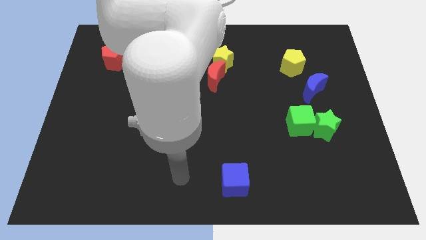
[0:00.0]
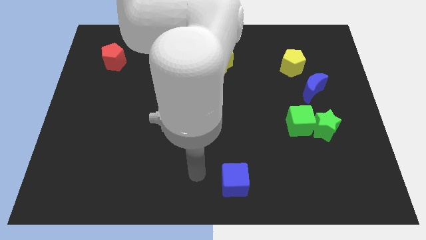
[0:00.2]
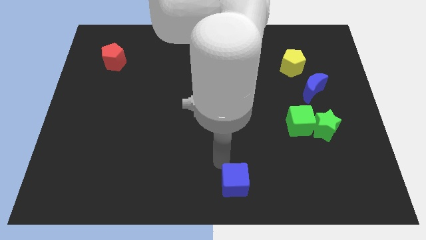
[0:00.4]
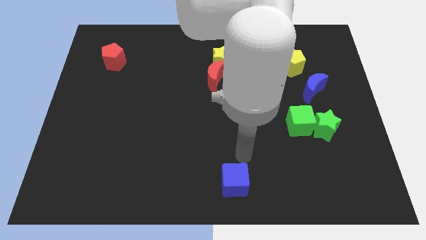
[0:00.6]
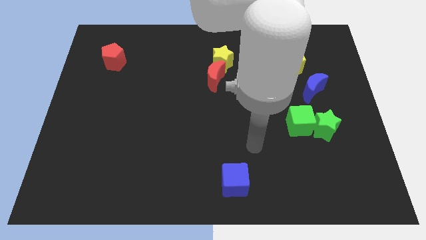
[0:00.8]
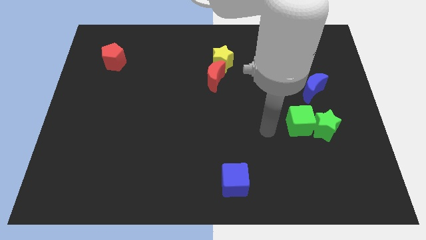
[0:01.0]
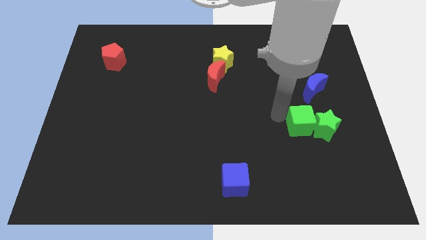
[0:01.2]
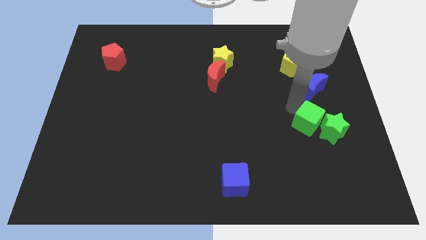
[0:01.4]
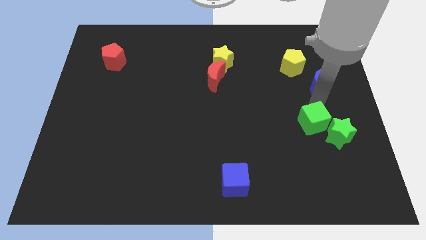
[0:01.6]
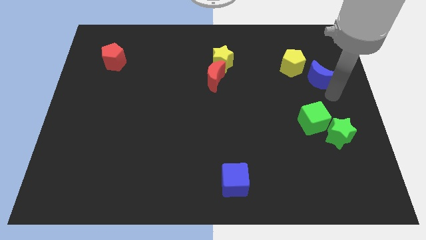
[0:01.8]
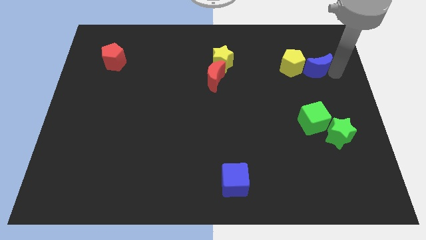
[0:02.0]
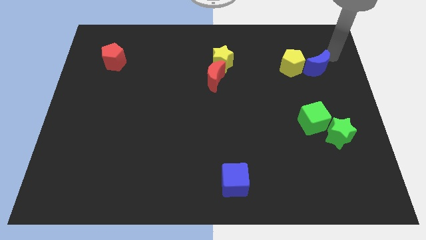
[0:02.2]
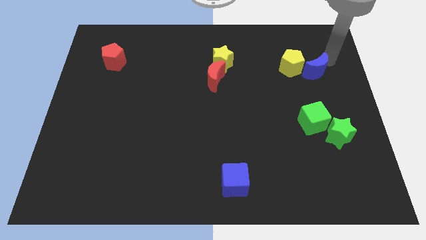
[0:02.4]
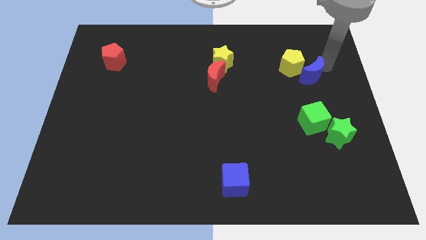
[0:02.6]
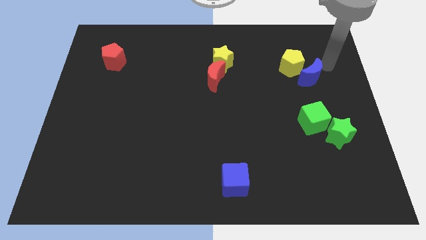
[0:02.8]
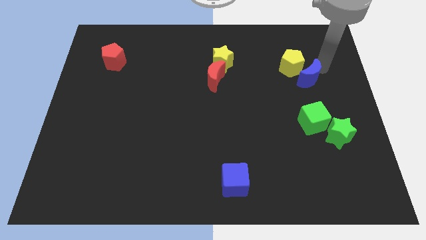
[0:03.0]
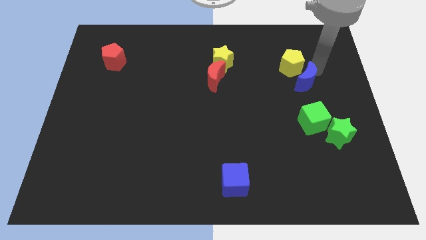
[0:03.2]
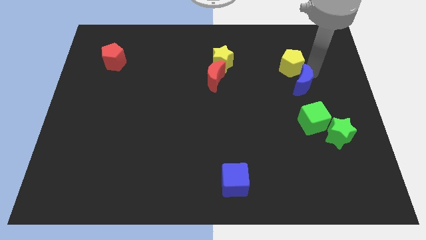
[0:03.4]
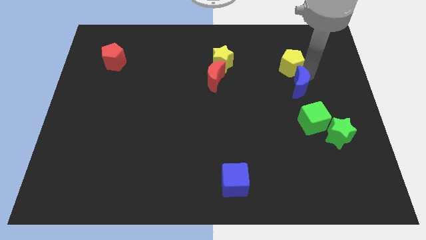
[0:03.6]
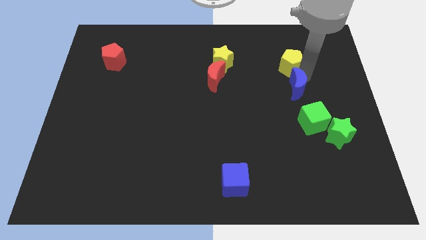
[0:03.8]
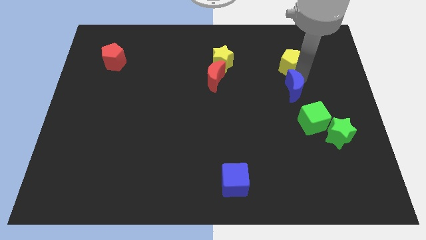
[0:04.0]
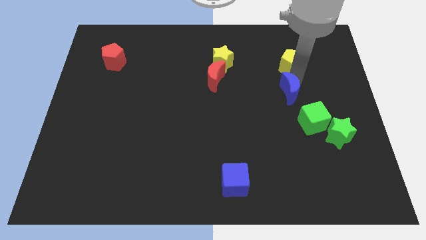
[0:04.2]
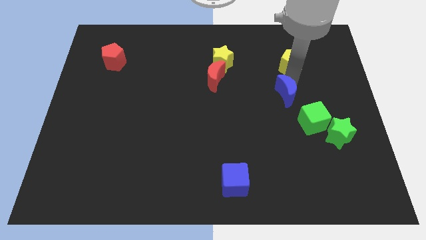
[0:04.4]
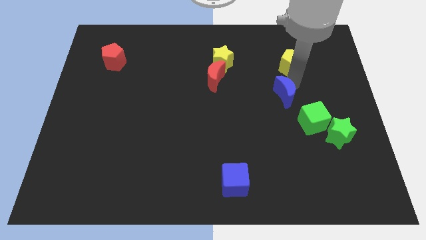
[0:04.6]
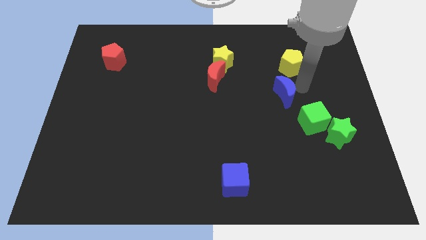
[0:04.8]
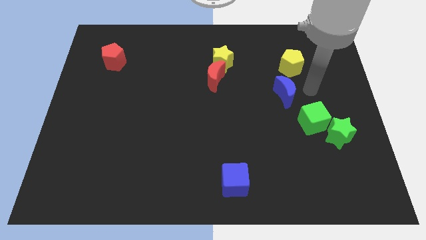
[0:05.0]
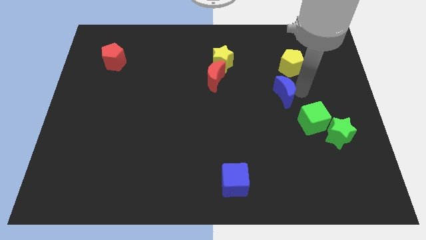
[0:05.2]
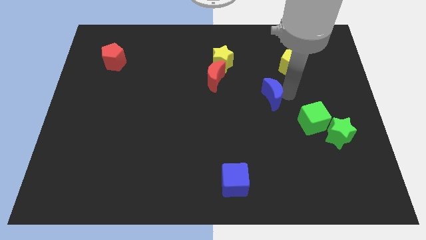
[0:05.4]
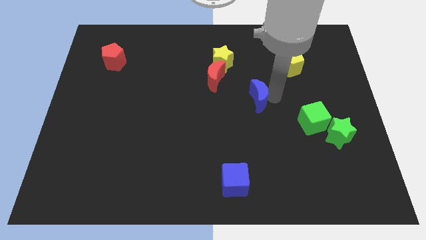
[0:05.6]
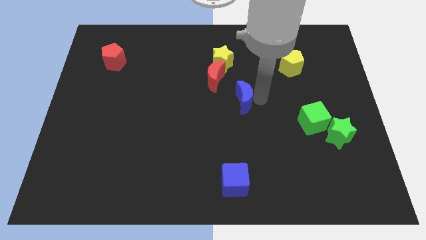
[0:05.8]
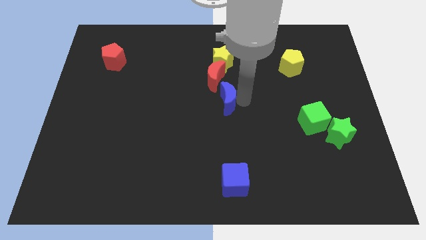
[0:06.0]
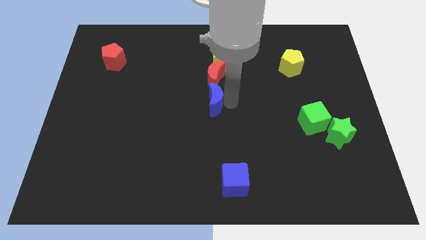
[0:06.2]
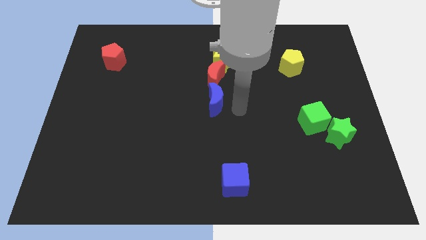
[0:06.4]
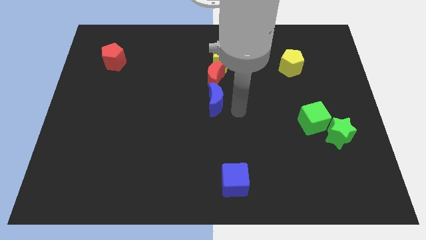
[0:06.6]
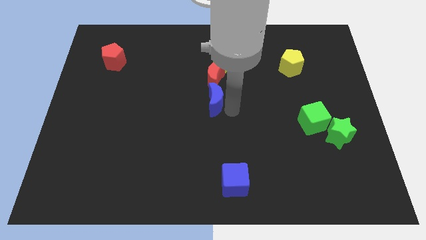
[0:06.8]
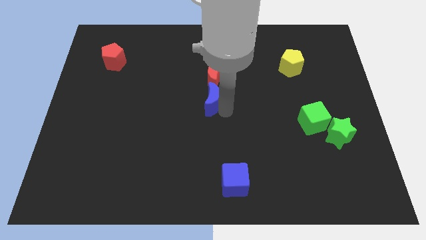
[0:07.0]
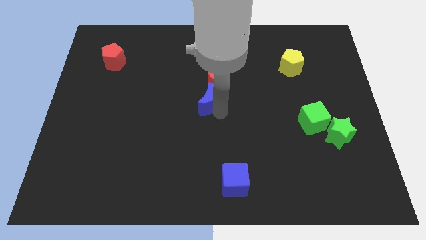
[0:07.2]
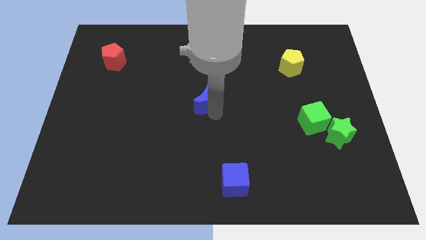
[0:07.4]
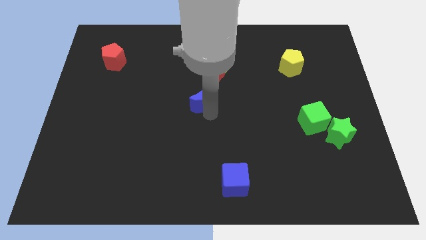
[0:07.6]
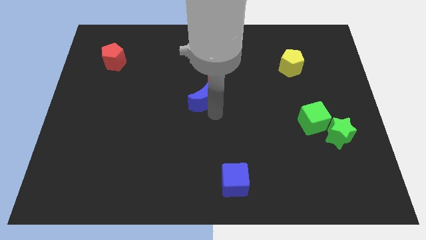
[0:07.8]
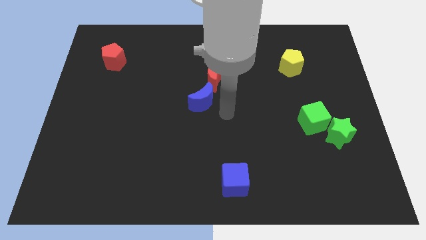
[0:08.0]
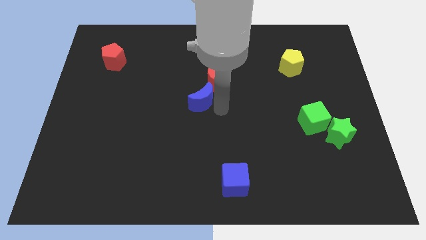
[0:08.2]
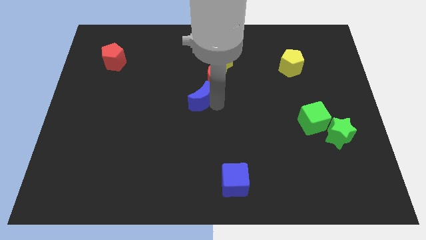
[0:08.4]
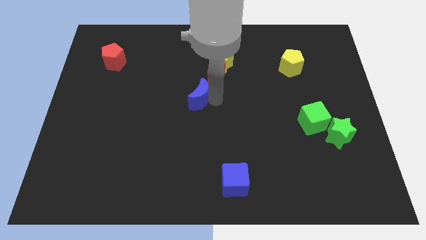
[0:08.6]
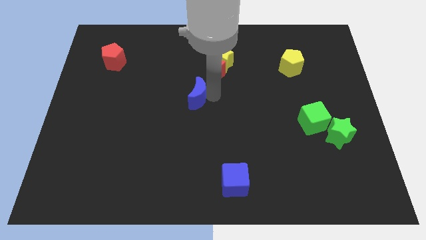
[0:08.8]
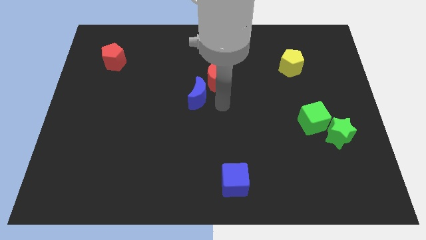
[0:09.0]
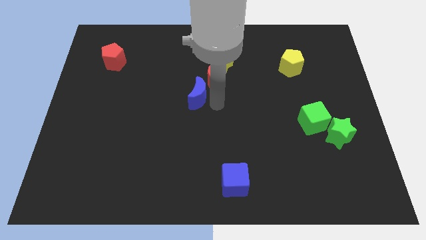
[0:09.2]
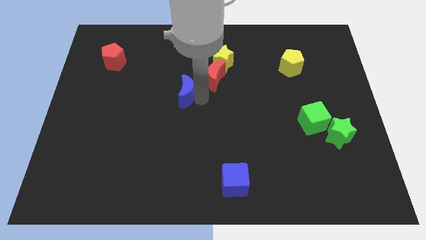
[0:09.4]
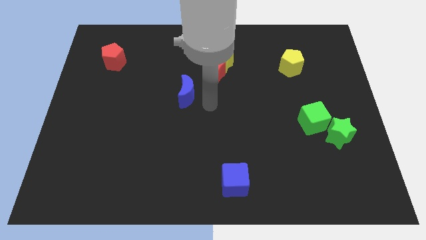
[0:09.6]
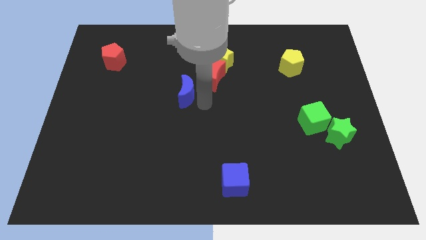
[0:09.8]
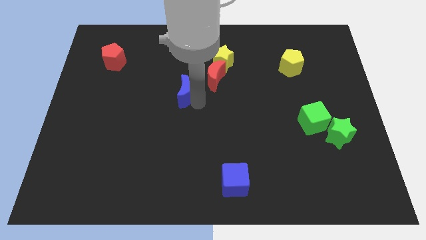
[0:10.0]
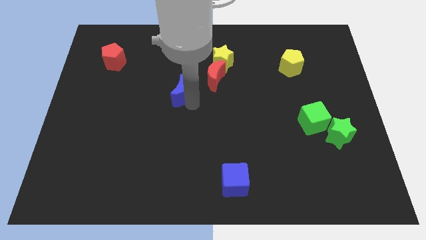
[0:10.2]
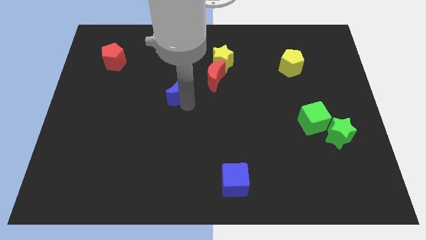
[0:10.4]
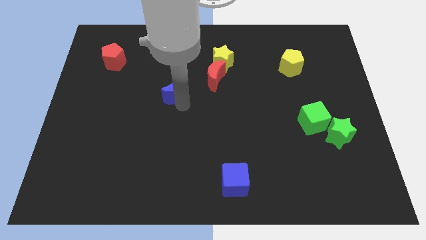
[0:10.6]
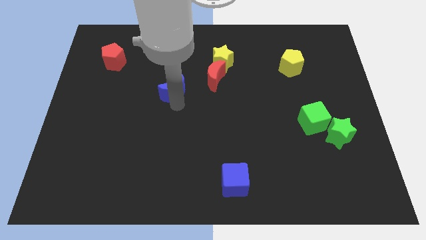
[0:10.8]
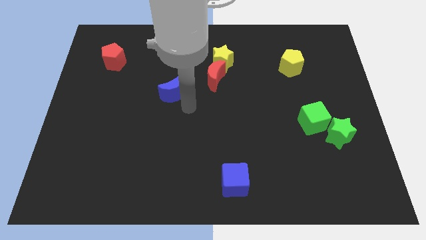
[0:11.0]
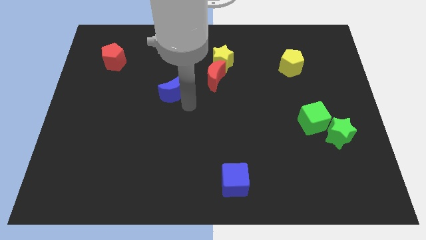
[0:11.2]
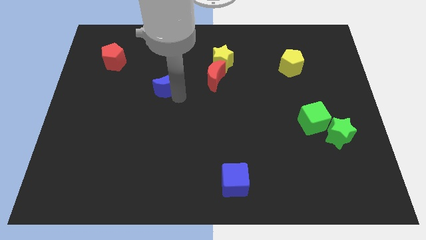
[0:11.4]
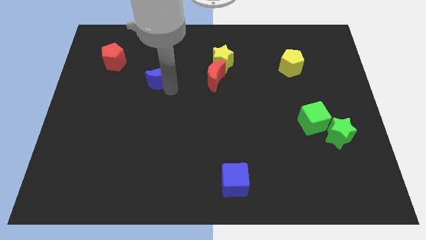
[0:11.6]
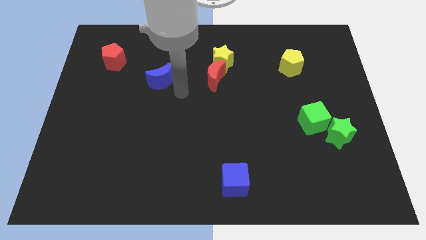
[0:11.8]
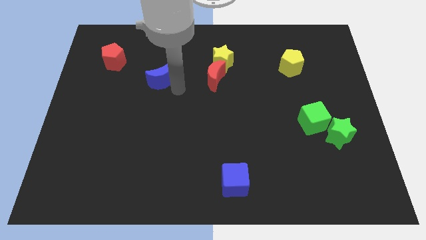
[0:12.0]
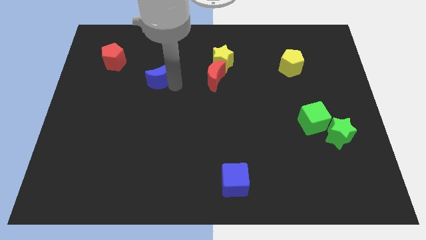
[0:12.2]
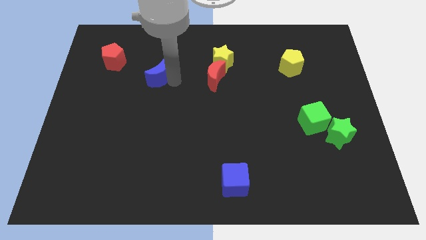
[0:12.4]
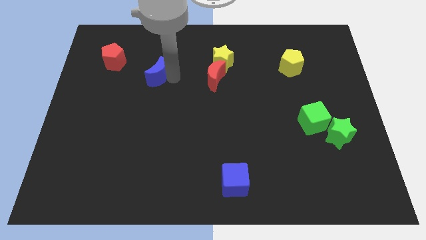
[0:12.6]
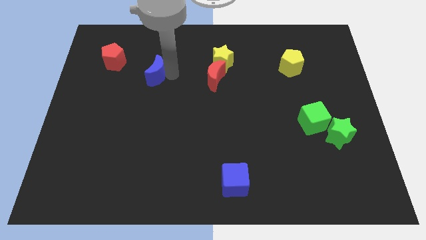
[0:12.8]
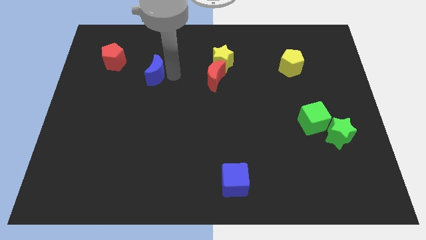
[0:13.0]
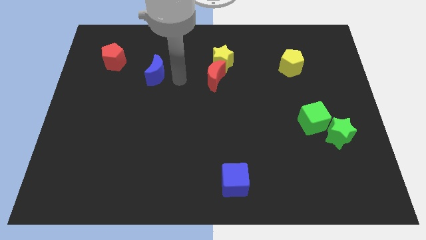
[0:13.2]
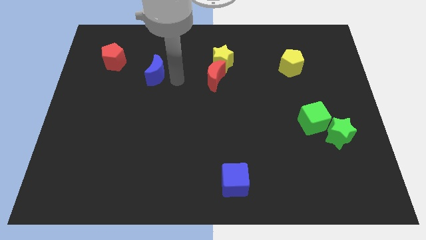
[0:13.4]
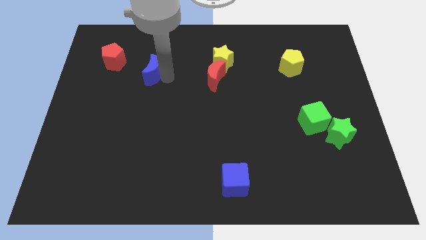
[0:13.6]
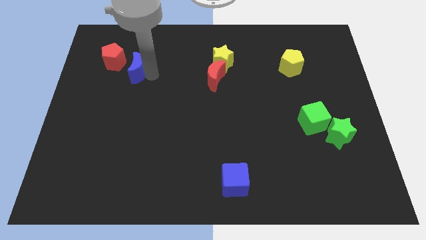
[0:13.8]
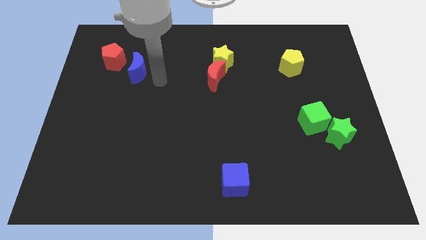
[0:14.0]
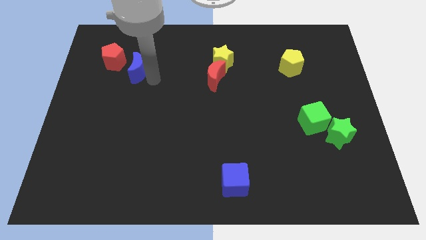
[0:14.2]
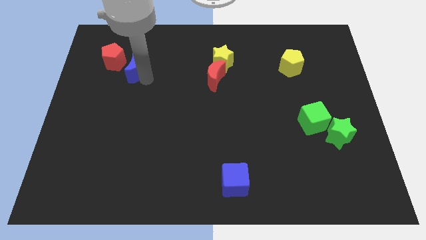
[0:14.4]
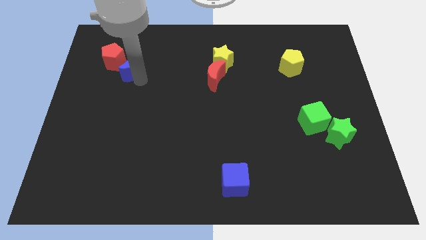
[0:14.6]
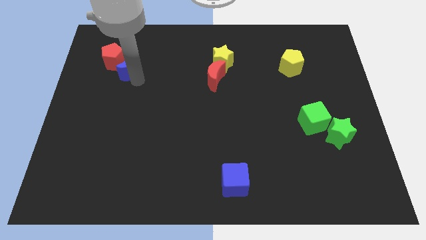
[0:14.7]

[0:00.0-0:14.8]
move the blue moon towards the red pentagon

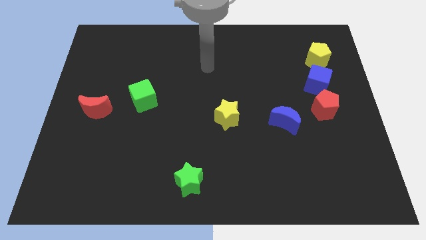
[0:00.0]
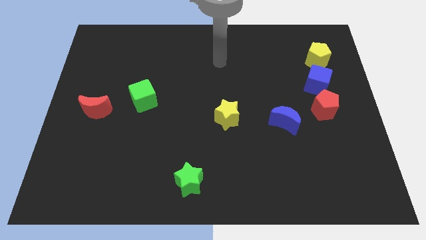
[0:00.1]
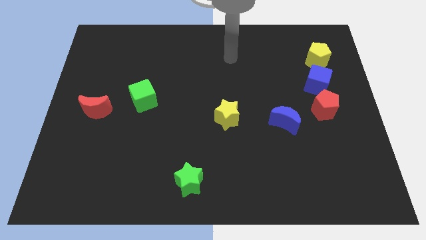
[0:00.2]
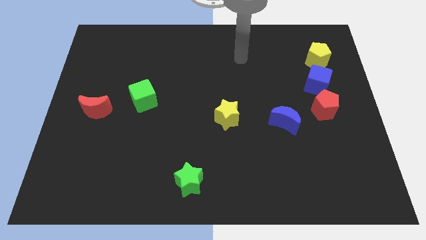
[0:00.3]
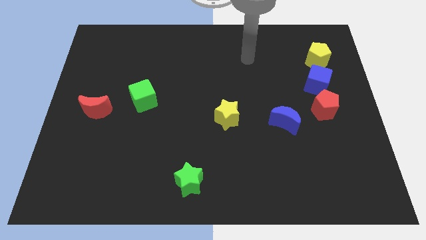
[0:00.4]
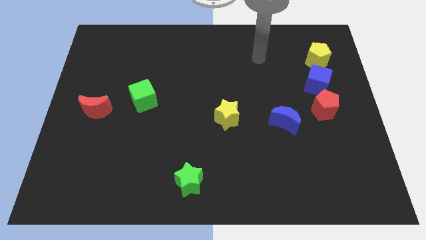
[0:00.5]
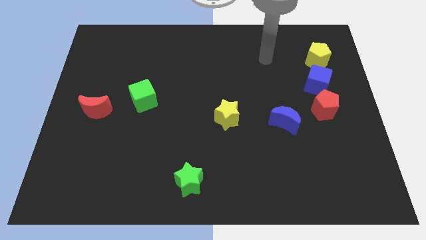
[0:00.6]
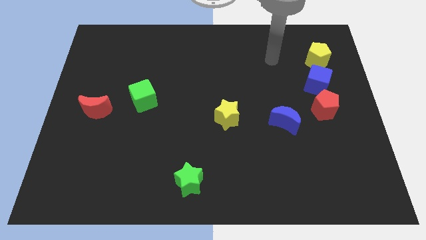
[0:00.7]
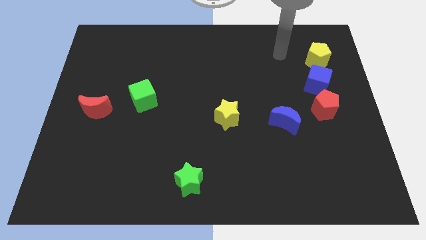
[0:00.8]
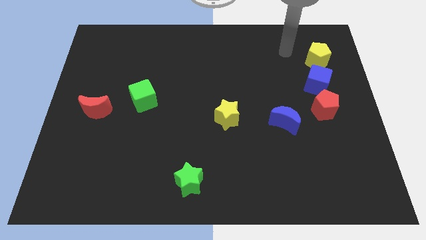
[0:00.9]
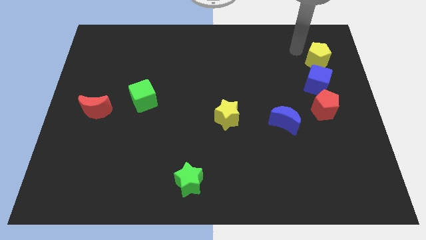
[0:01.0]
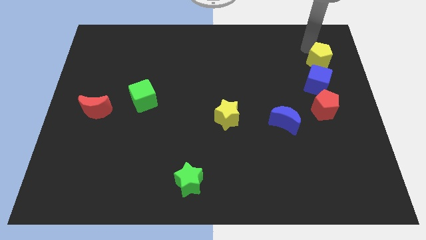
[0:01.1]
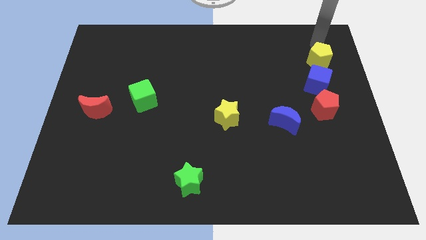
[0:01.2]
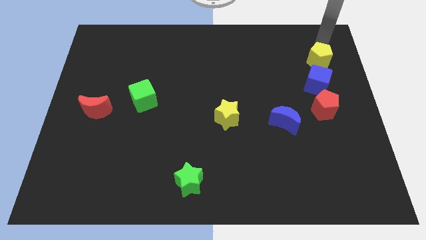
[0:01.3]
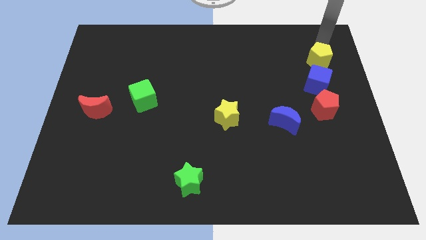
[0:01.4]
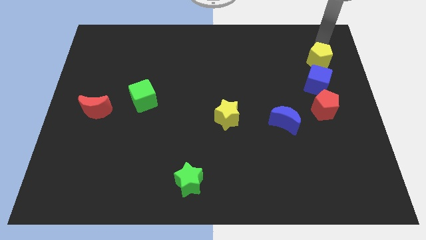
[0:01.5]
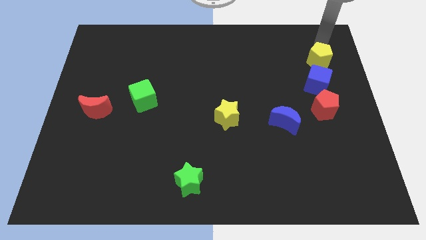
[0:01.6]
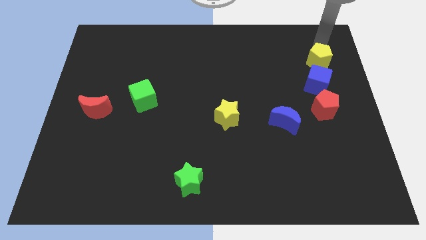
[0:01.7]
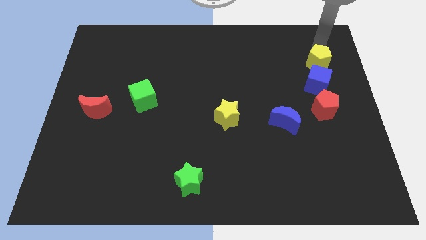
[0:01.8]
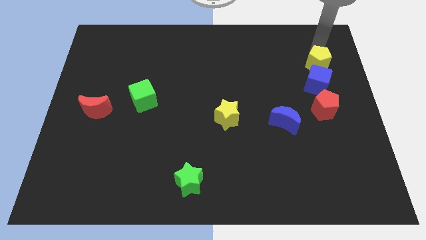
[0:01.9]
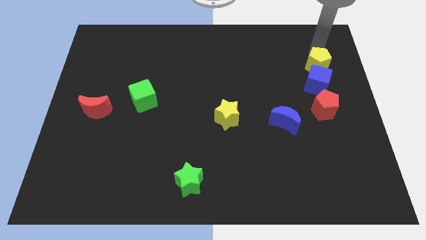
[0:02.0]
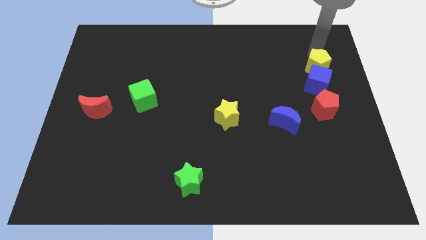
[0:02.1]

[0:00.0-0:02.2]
push the yellow pentagon towards the blue cube
